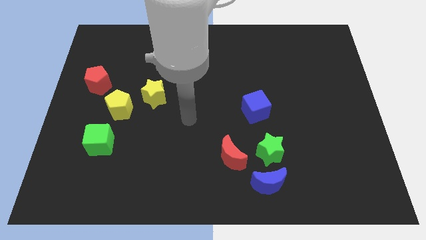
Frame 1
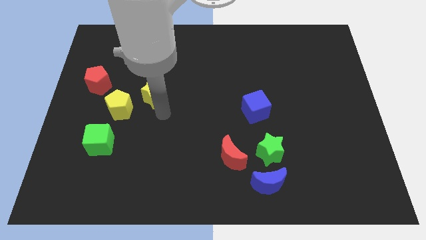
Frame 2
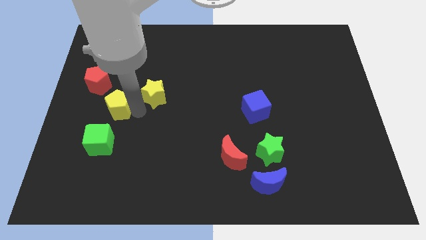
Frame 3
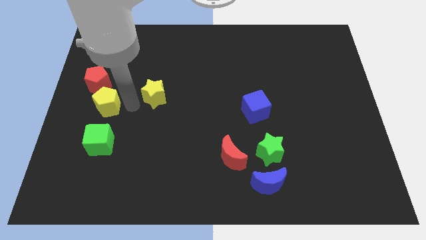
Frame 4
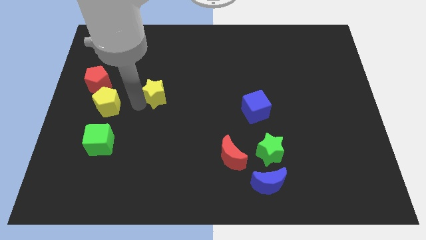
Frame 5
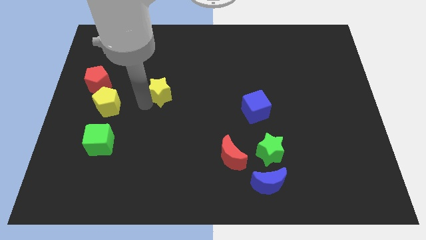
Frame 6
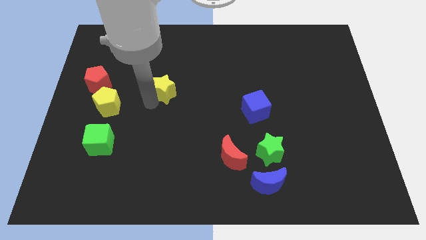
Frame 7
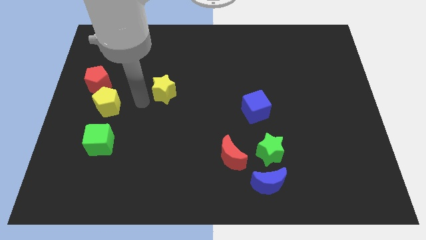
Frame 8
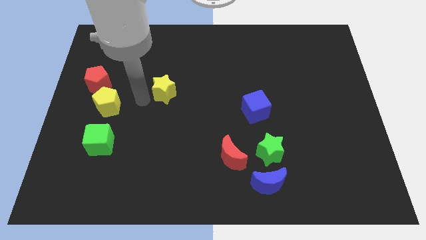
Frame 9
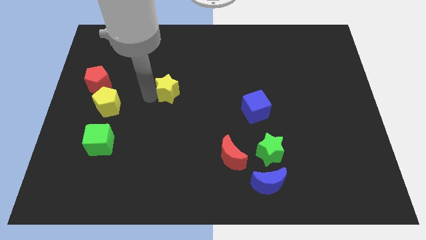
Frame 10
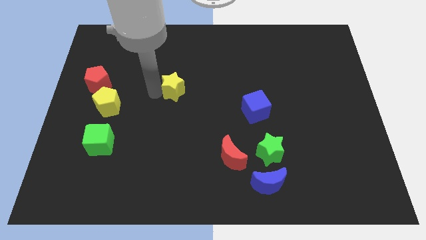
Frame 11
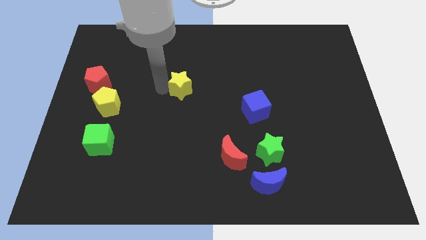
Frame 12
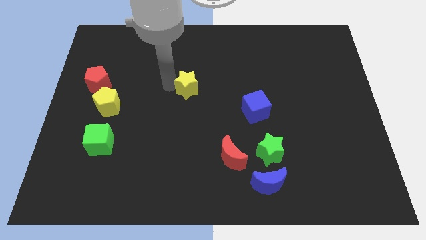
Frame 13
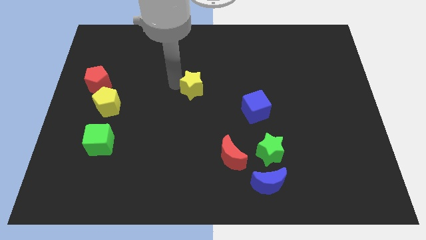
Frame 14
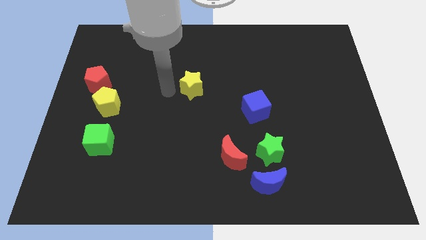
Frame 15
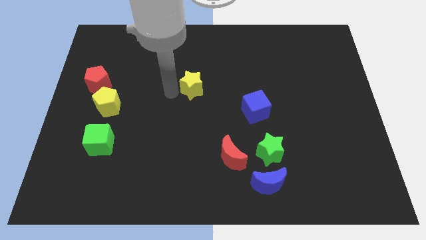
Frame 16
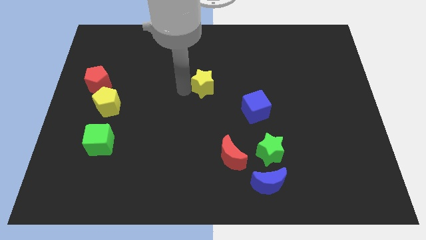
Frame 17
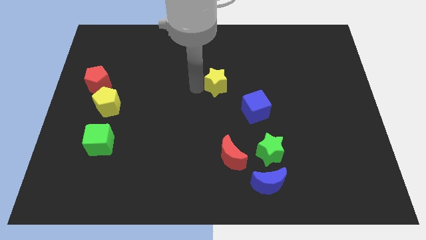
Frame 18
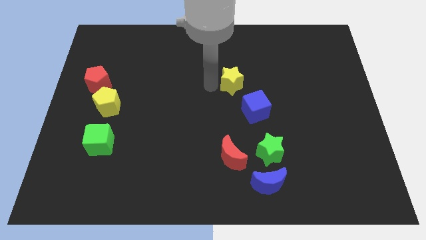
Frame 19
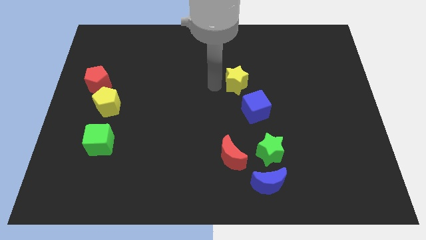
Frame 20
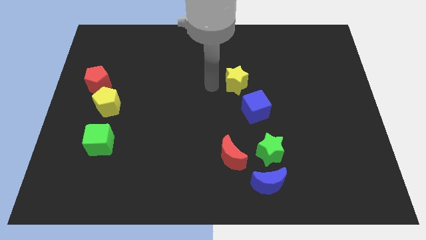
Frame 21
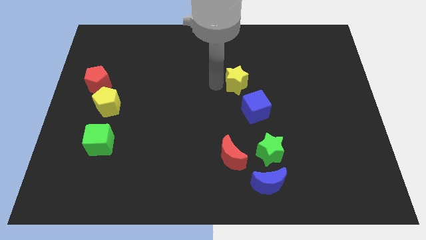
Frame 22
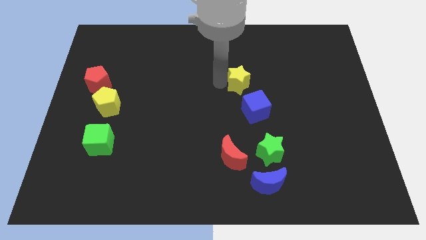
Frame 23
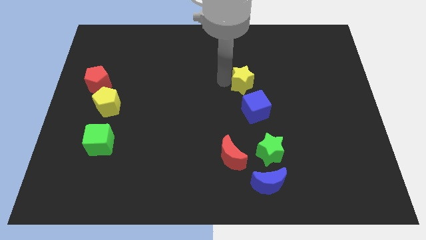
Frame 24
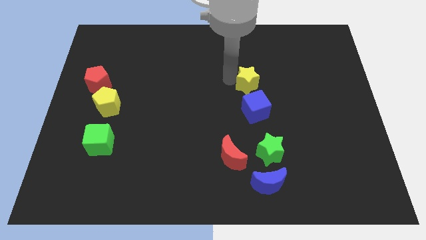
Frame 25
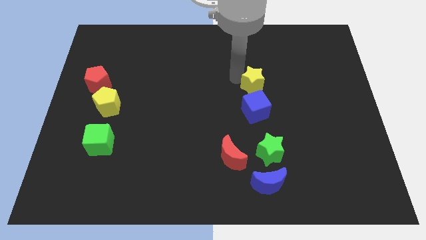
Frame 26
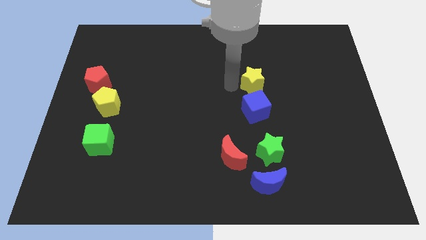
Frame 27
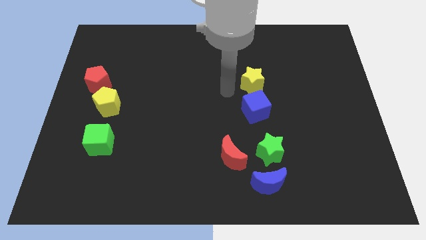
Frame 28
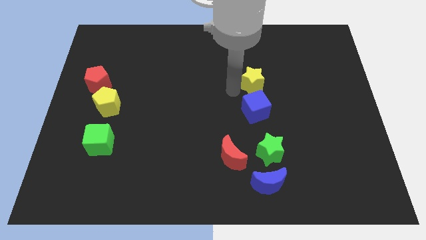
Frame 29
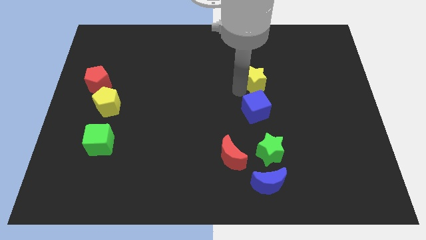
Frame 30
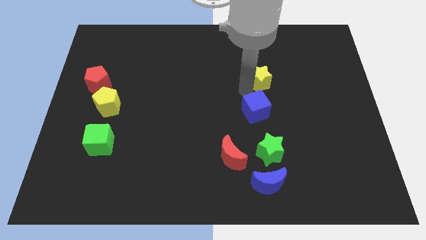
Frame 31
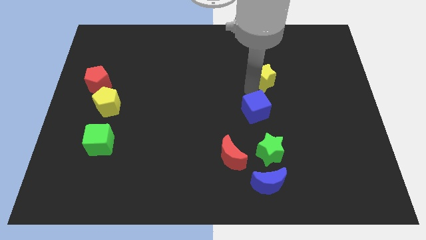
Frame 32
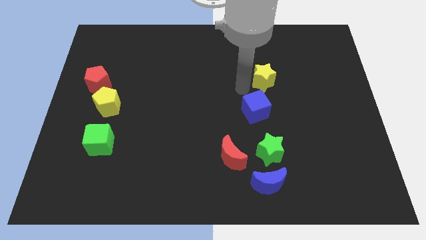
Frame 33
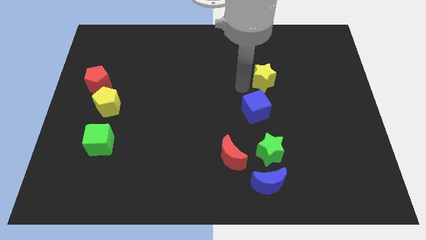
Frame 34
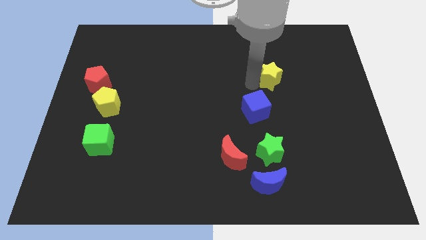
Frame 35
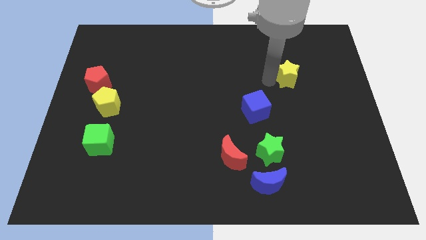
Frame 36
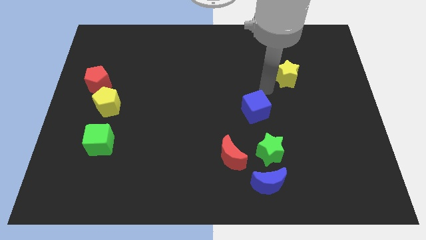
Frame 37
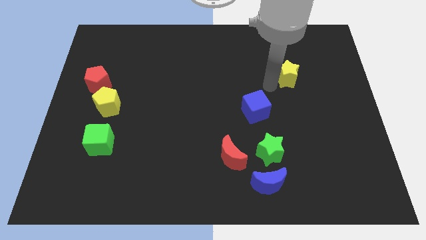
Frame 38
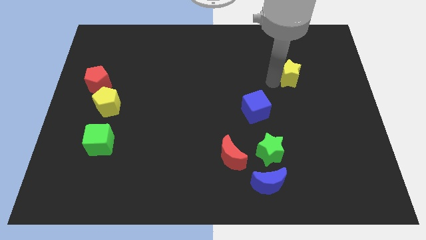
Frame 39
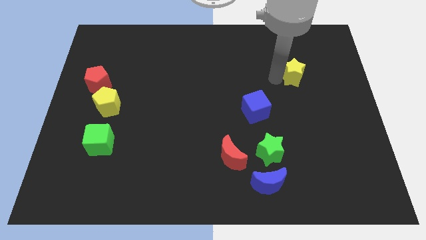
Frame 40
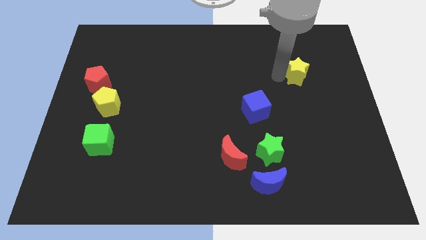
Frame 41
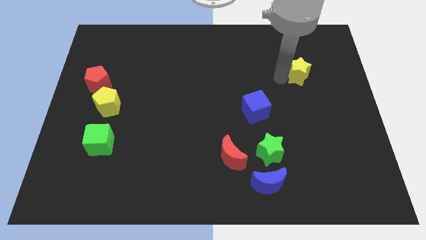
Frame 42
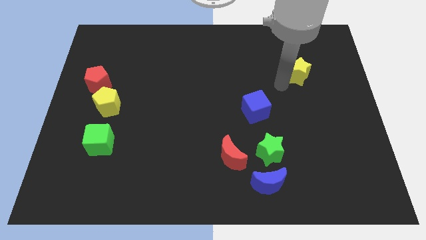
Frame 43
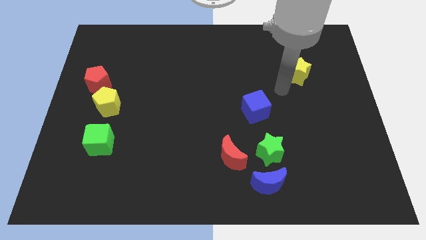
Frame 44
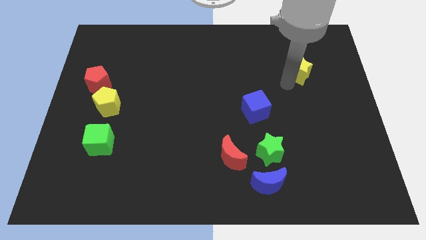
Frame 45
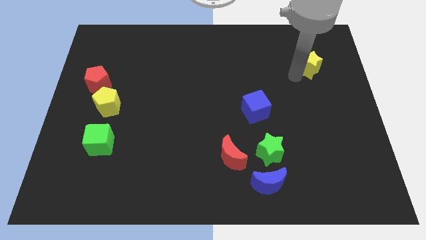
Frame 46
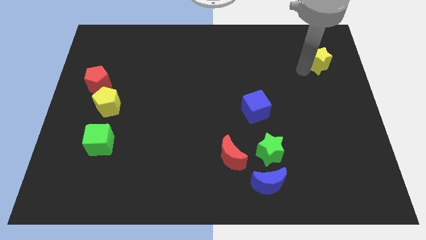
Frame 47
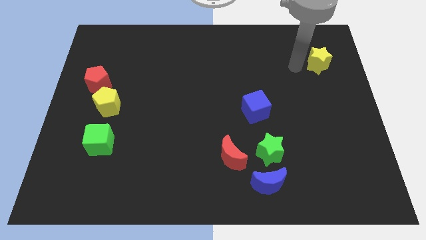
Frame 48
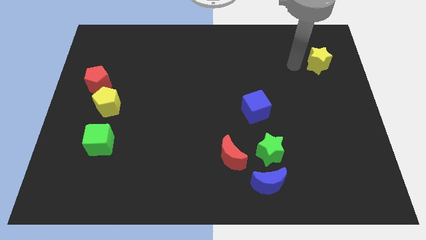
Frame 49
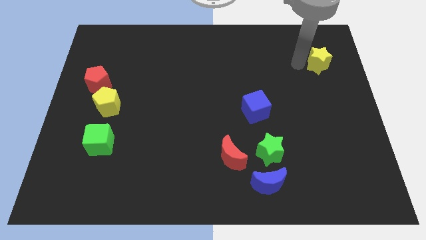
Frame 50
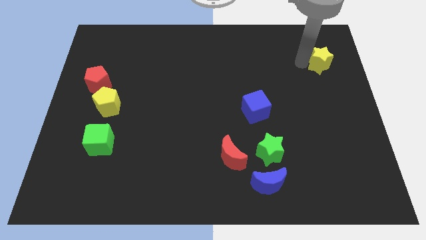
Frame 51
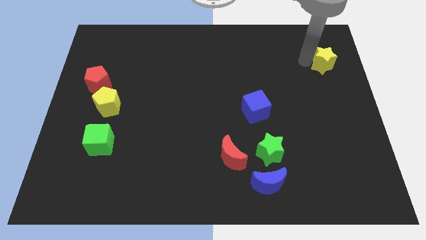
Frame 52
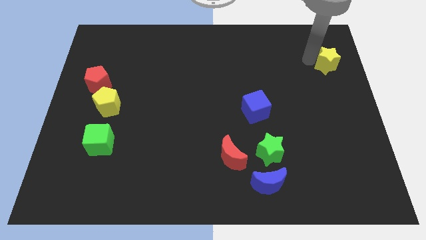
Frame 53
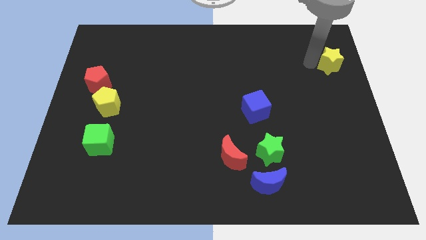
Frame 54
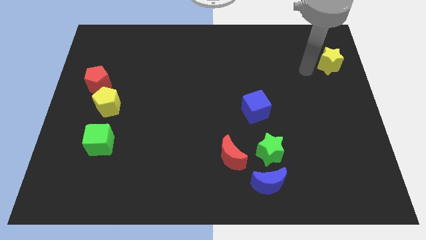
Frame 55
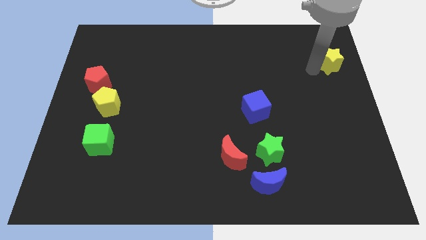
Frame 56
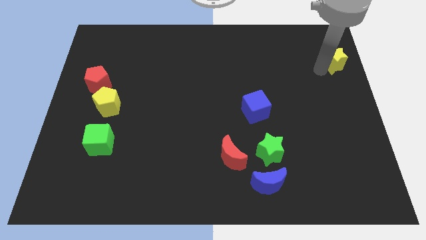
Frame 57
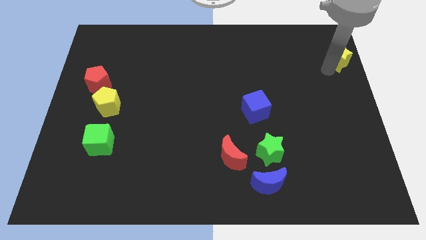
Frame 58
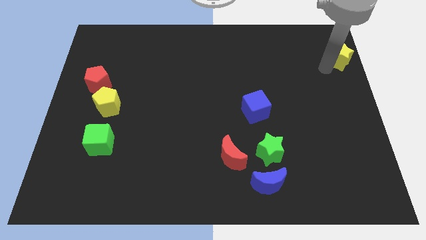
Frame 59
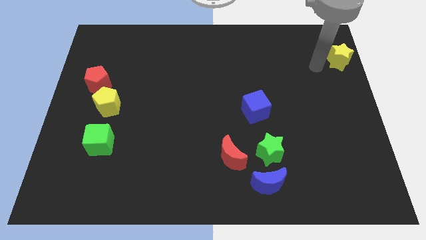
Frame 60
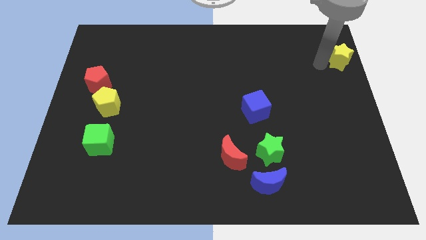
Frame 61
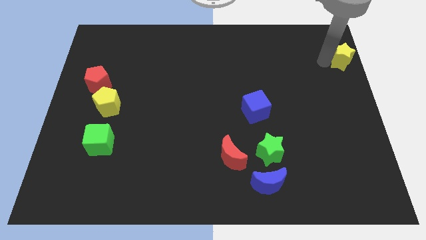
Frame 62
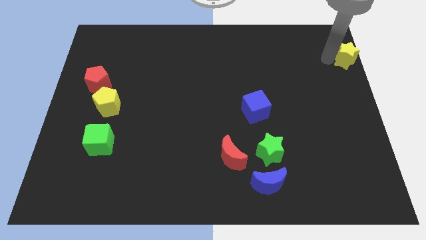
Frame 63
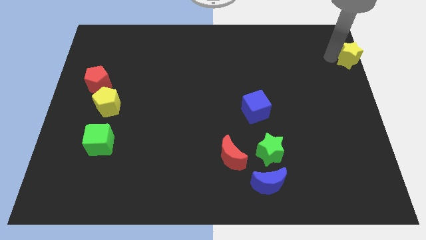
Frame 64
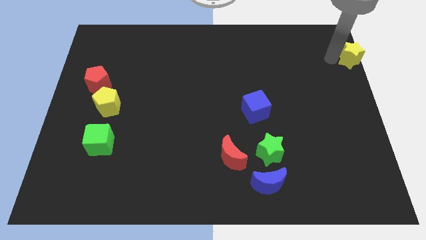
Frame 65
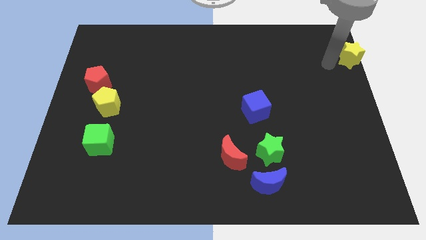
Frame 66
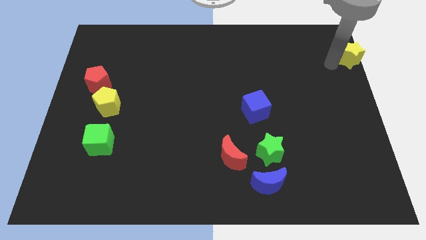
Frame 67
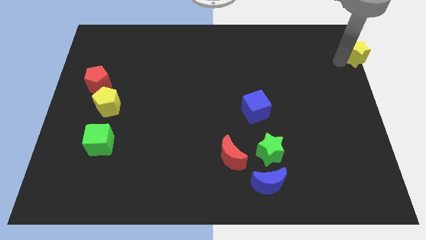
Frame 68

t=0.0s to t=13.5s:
put the yellow star to the top right
